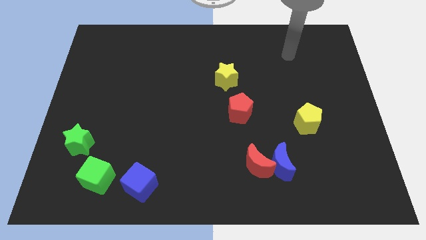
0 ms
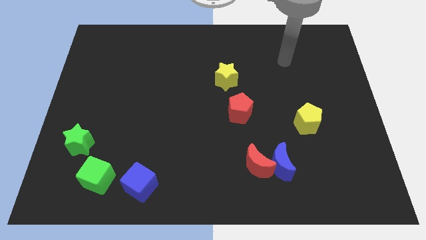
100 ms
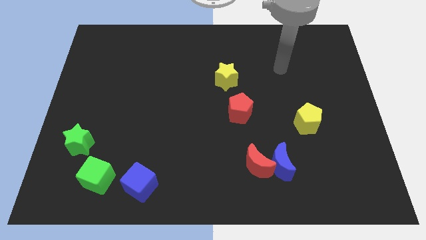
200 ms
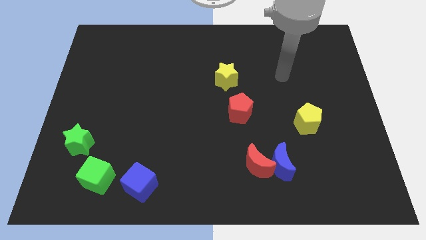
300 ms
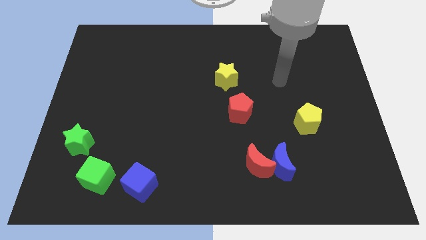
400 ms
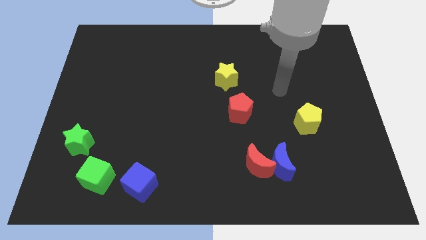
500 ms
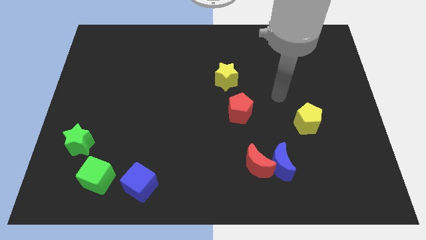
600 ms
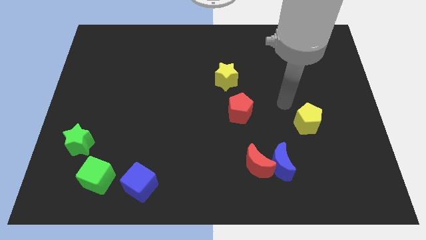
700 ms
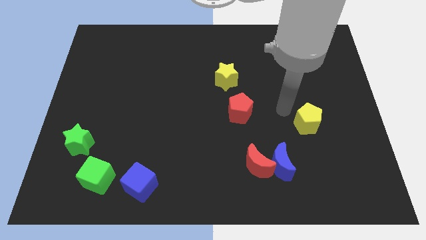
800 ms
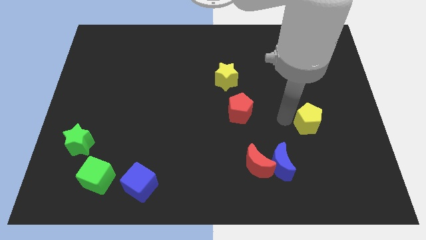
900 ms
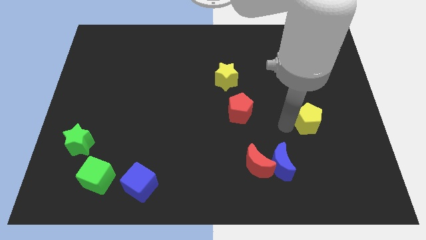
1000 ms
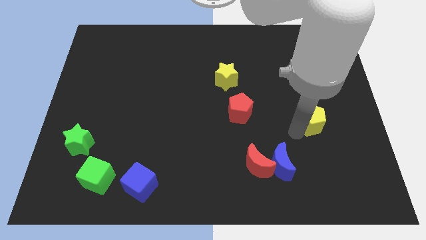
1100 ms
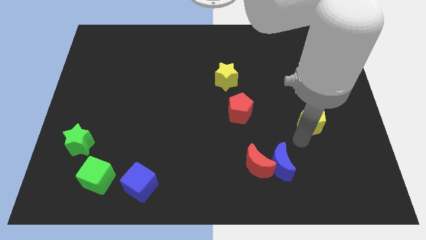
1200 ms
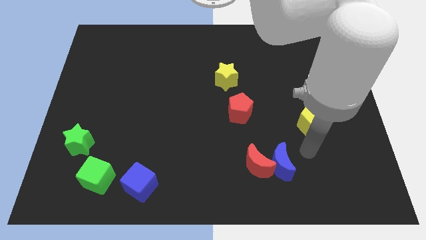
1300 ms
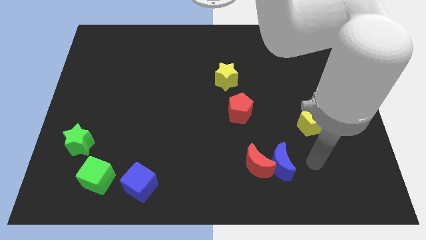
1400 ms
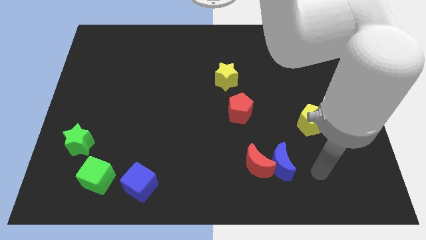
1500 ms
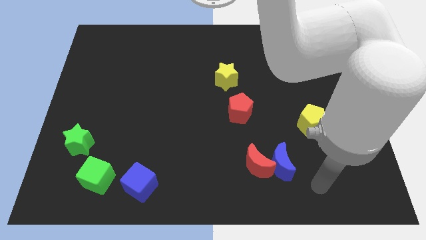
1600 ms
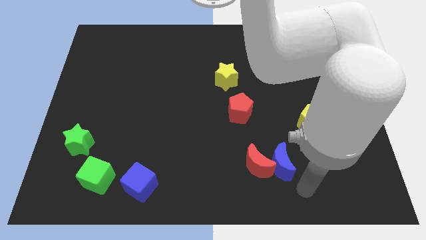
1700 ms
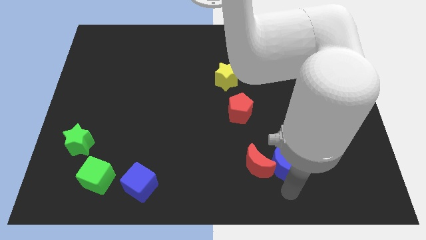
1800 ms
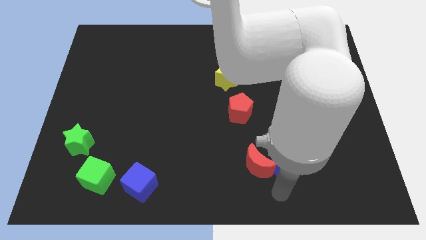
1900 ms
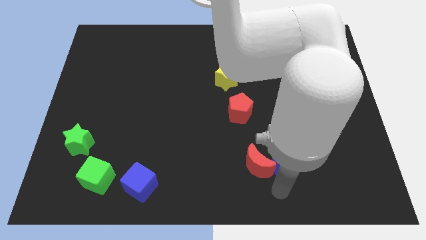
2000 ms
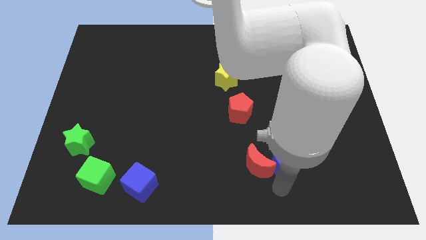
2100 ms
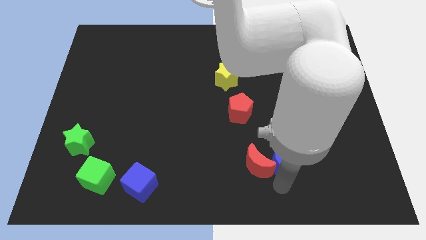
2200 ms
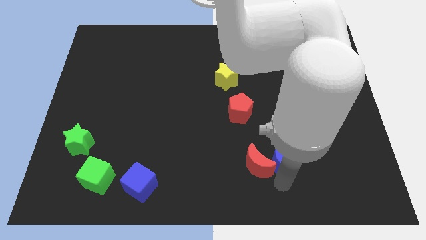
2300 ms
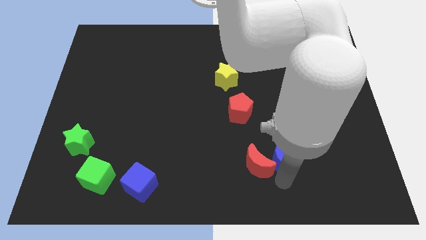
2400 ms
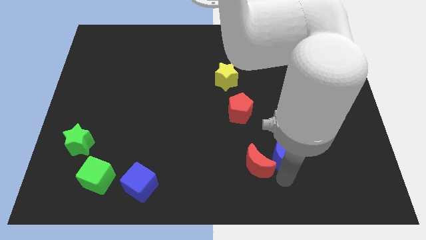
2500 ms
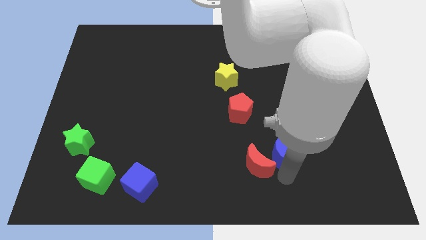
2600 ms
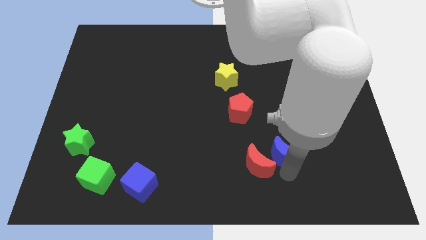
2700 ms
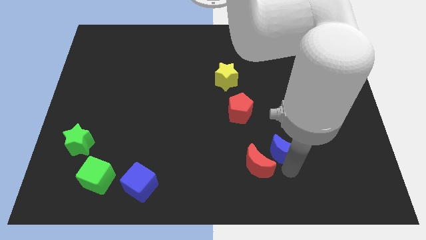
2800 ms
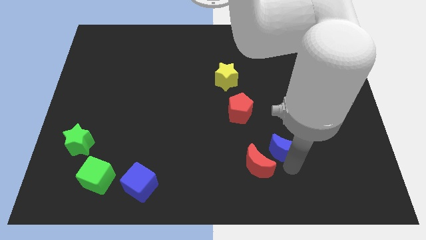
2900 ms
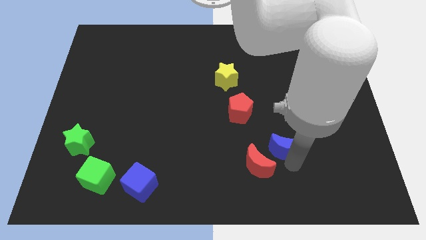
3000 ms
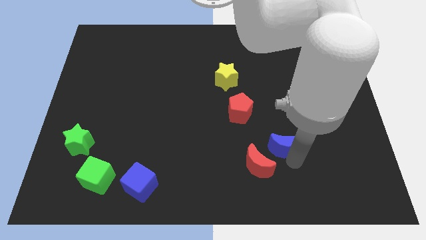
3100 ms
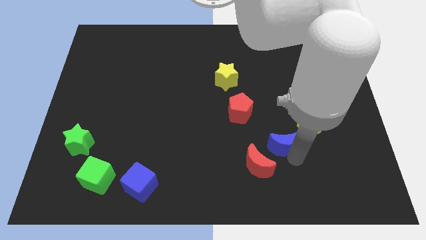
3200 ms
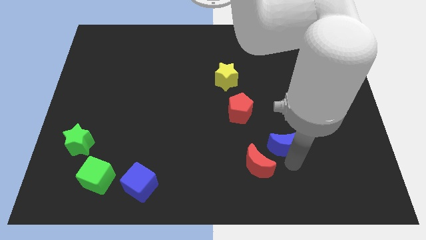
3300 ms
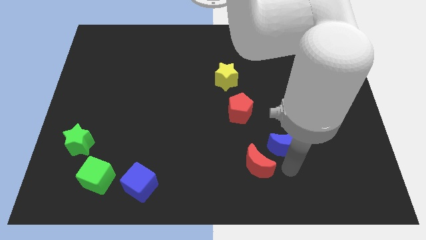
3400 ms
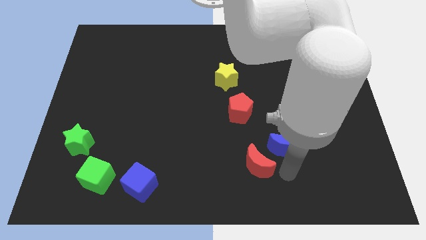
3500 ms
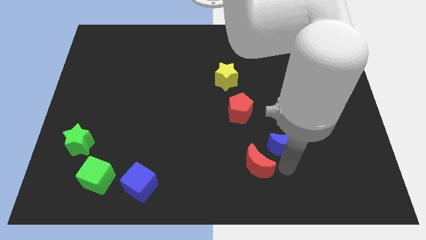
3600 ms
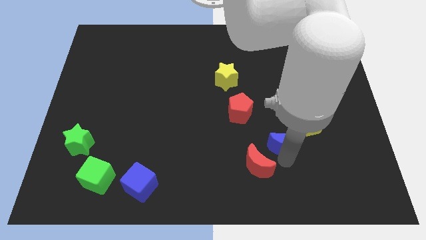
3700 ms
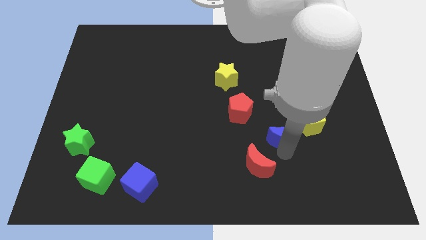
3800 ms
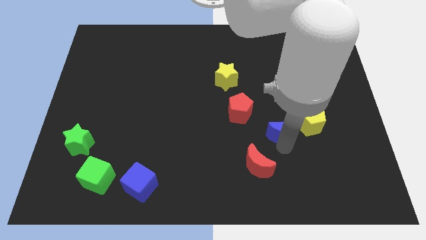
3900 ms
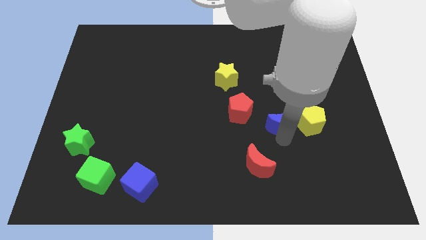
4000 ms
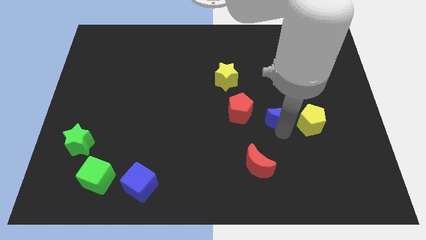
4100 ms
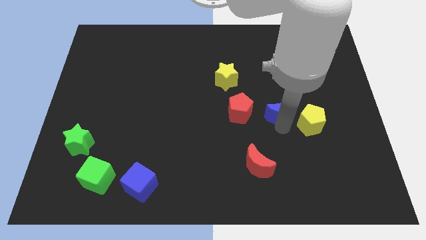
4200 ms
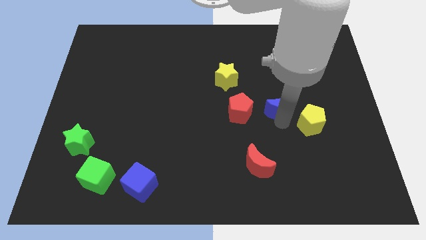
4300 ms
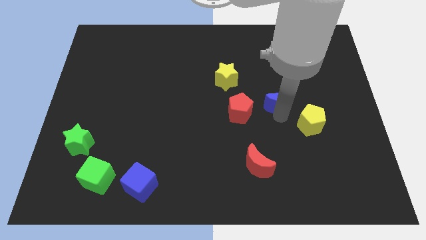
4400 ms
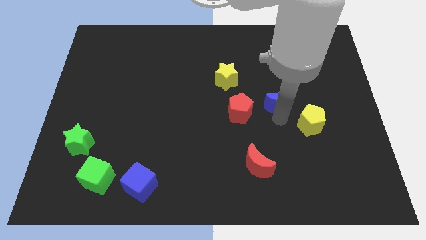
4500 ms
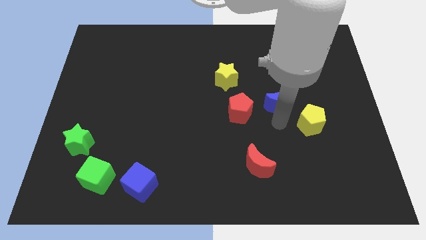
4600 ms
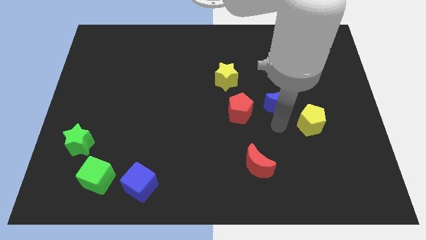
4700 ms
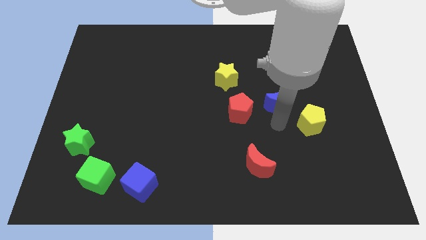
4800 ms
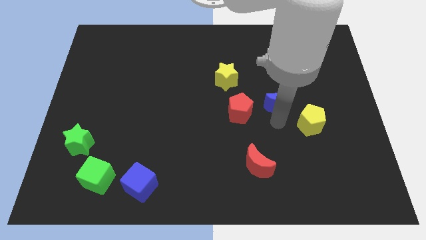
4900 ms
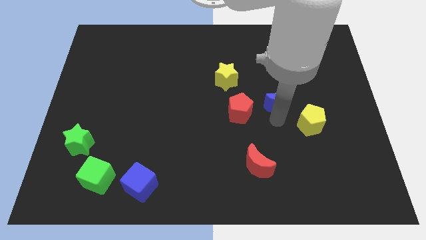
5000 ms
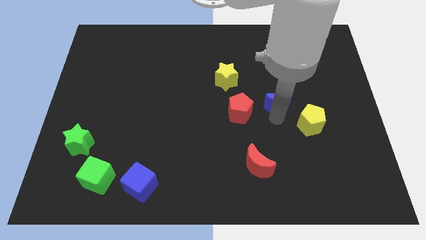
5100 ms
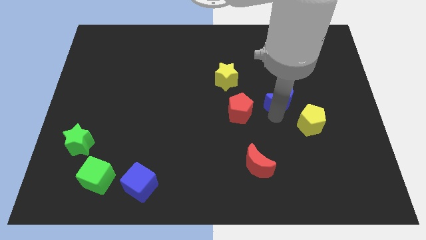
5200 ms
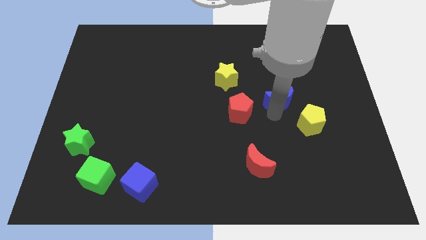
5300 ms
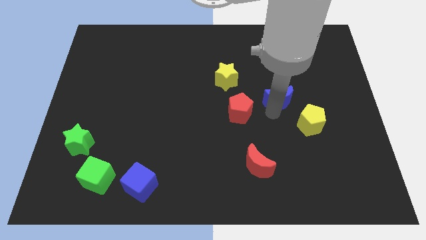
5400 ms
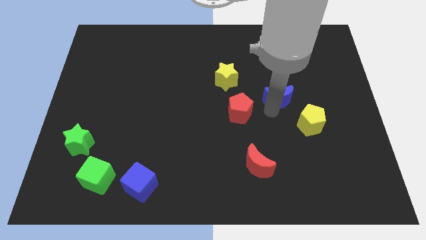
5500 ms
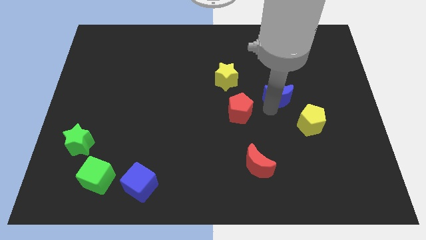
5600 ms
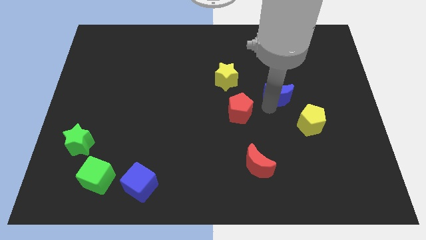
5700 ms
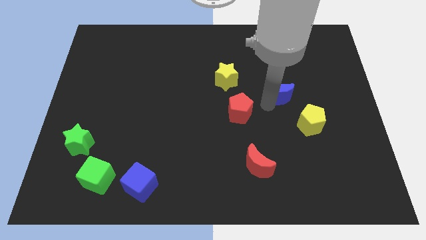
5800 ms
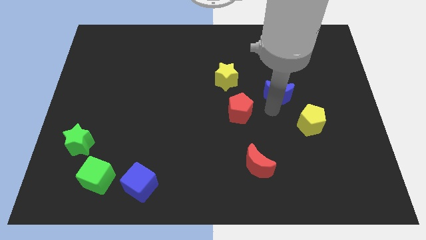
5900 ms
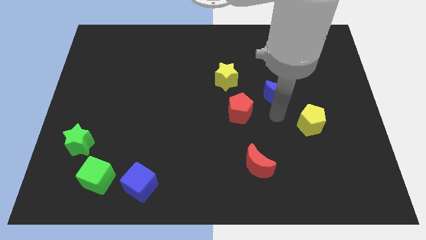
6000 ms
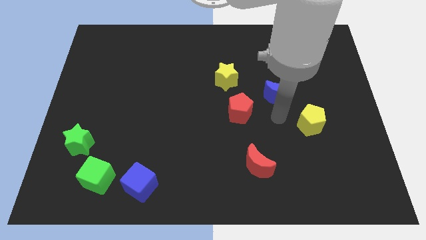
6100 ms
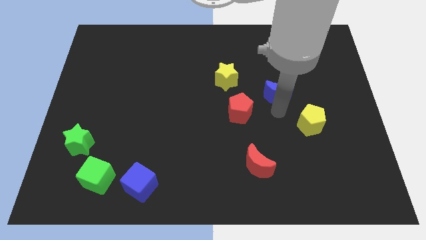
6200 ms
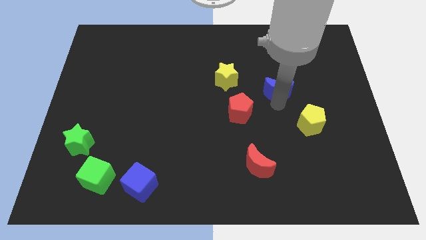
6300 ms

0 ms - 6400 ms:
slide the blue moon up

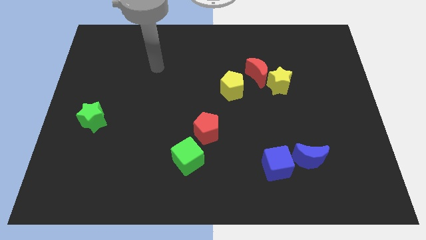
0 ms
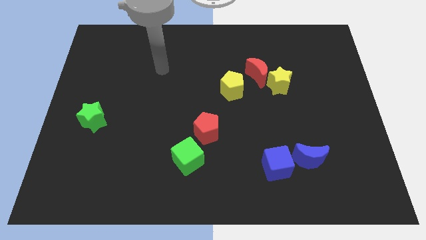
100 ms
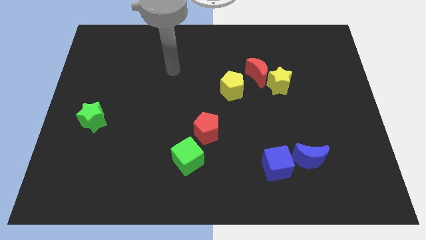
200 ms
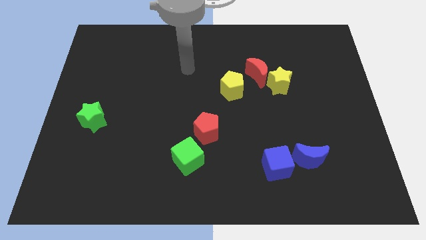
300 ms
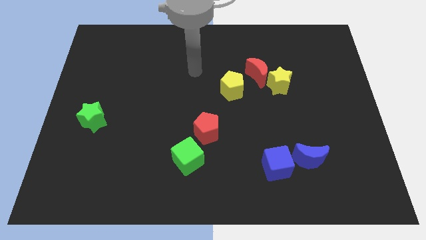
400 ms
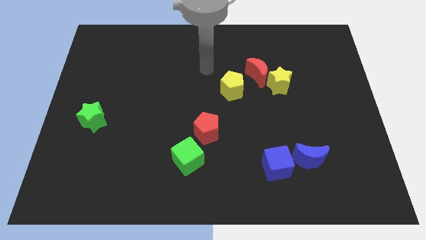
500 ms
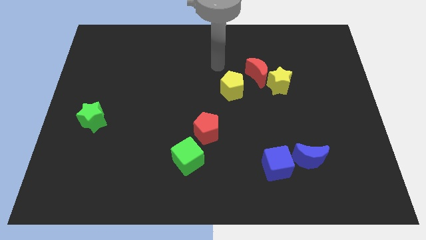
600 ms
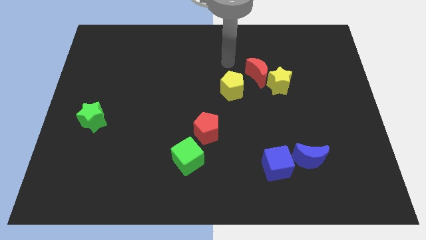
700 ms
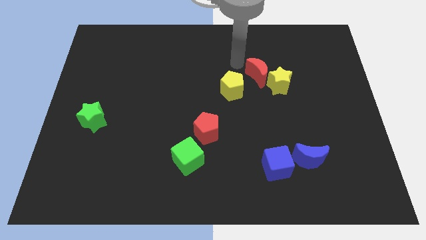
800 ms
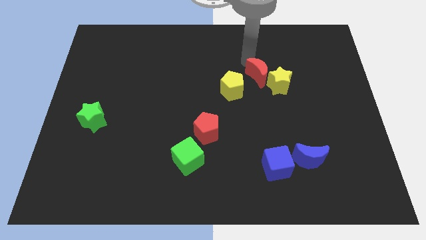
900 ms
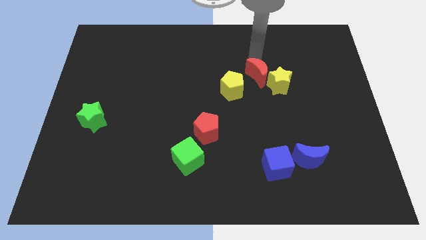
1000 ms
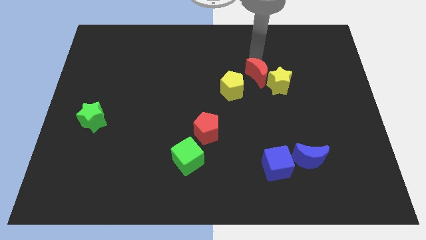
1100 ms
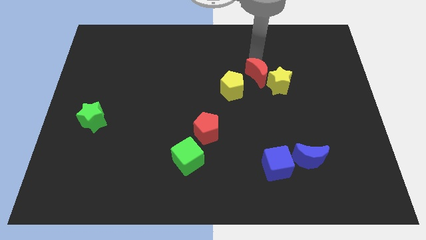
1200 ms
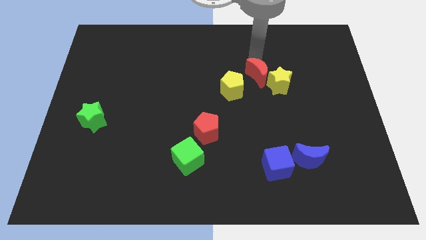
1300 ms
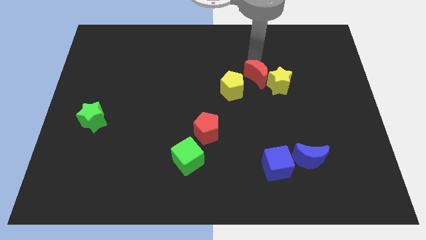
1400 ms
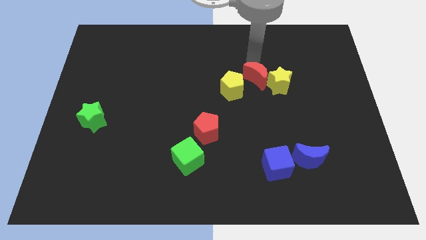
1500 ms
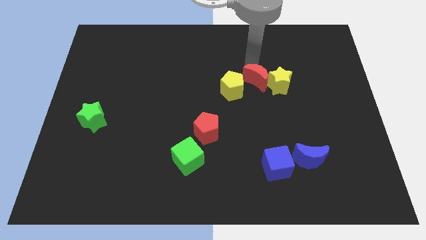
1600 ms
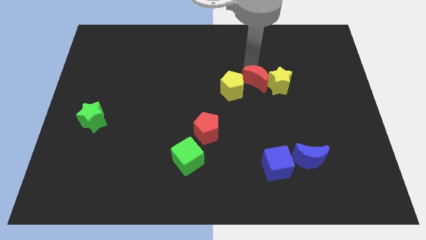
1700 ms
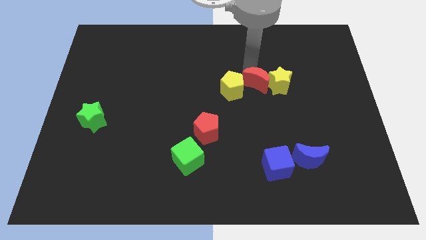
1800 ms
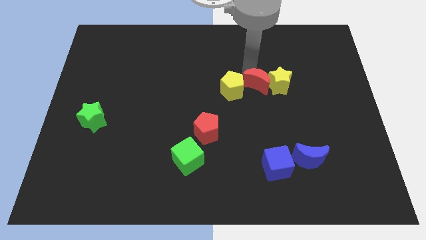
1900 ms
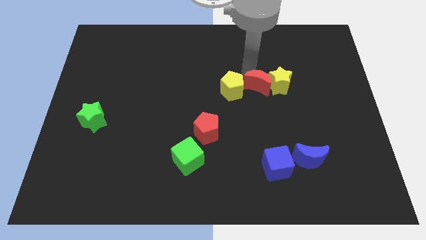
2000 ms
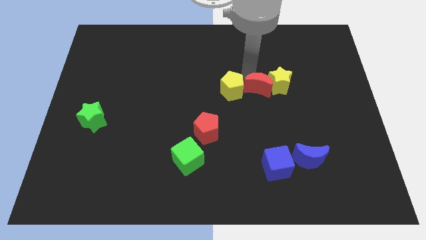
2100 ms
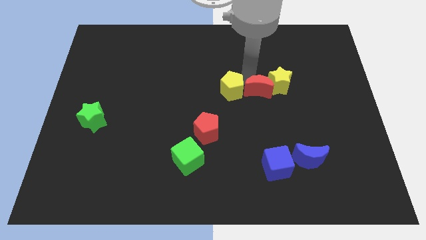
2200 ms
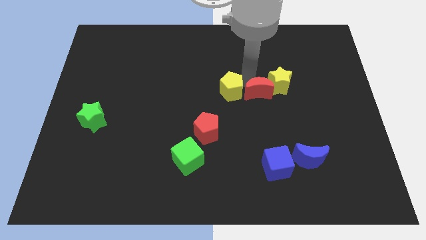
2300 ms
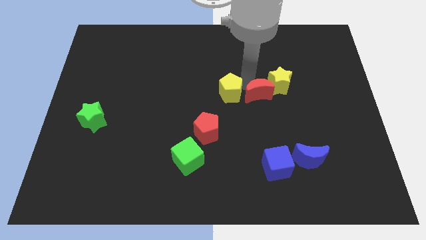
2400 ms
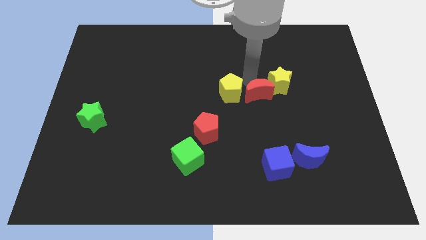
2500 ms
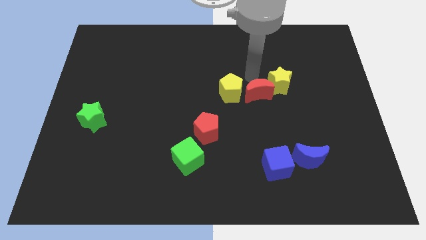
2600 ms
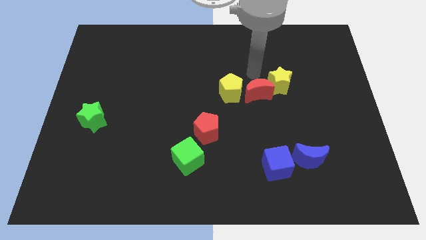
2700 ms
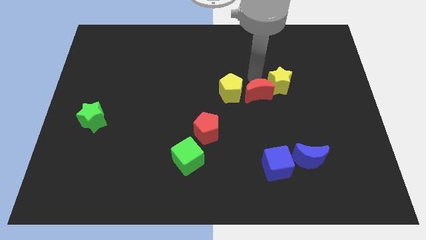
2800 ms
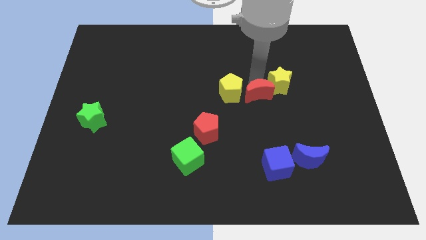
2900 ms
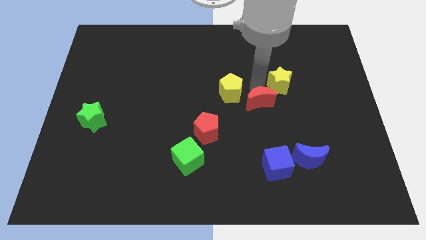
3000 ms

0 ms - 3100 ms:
move the red moon a little bit down
